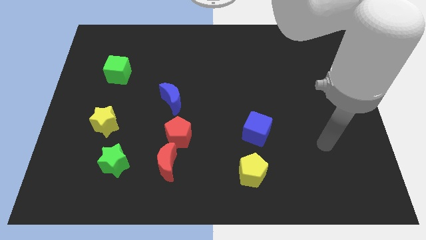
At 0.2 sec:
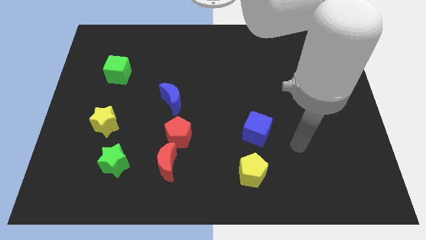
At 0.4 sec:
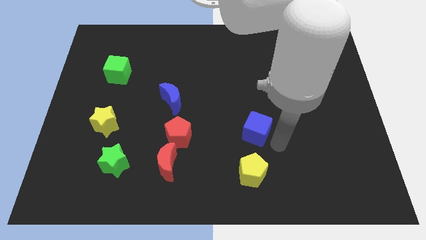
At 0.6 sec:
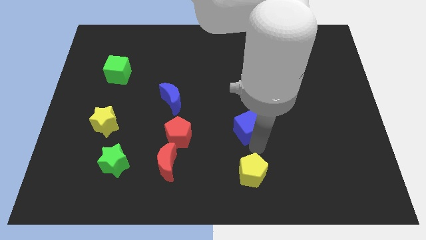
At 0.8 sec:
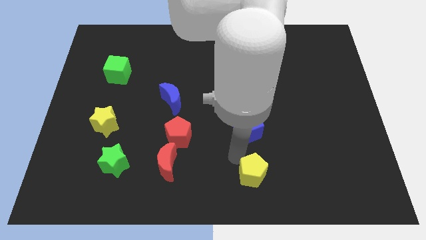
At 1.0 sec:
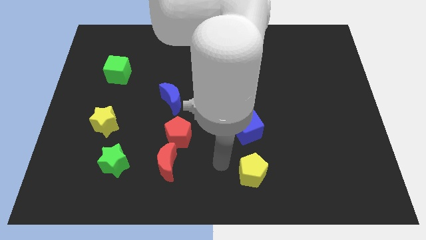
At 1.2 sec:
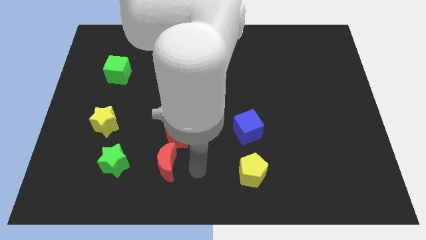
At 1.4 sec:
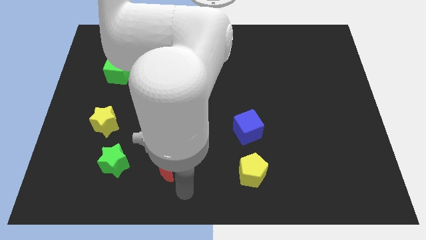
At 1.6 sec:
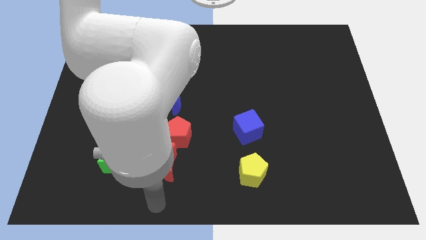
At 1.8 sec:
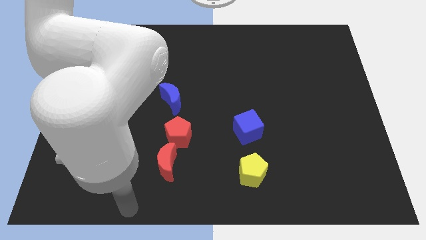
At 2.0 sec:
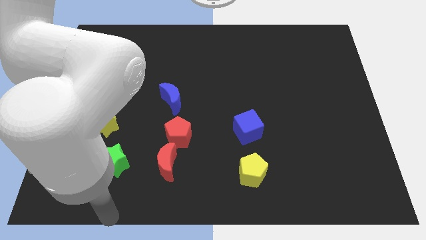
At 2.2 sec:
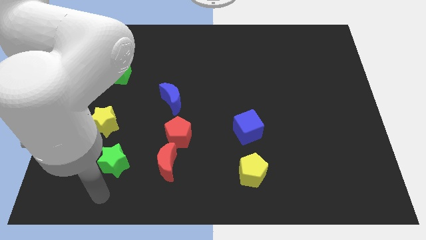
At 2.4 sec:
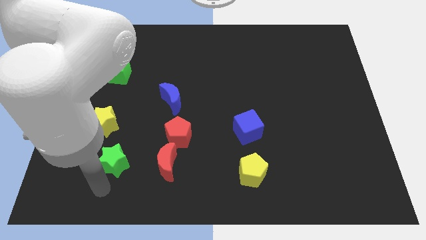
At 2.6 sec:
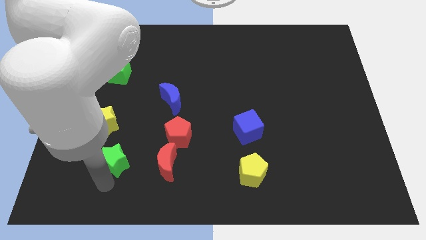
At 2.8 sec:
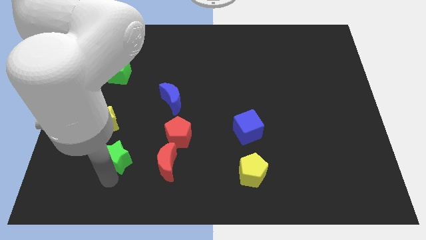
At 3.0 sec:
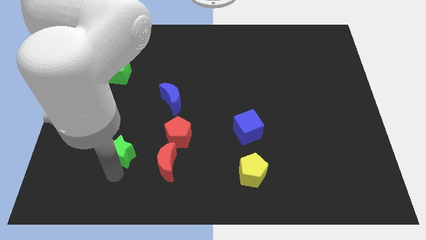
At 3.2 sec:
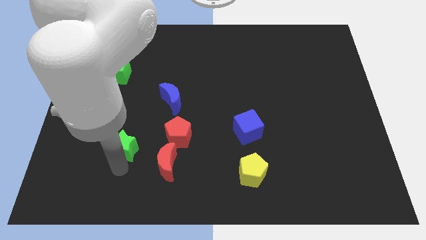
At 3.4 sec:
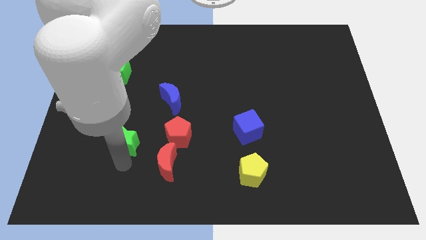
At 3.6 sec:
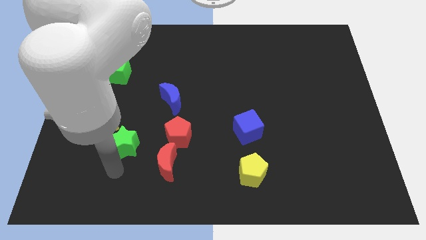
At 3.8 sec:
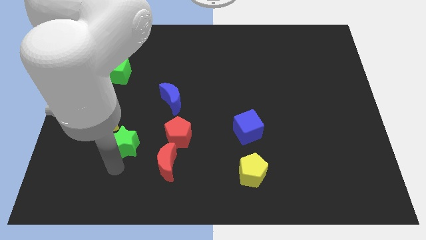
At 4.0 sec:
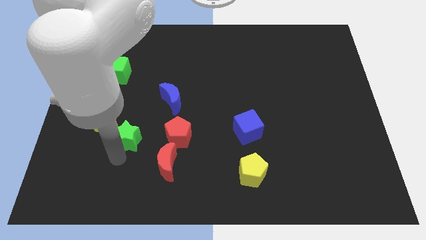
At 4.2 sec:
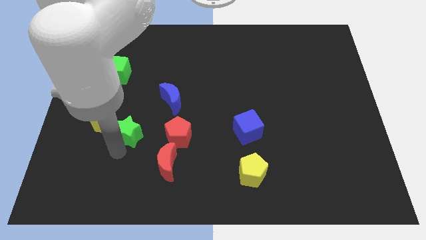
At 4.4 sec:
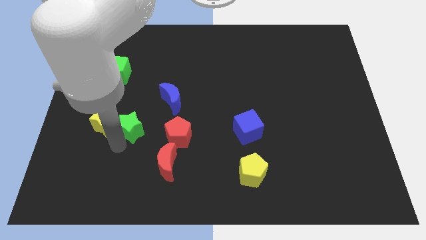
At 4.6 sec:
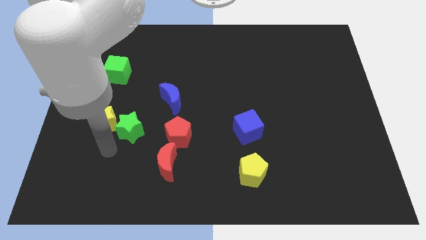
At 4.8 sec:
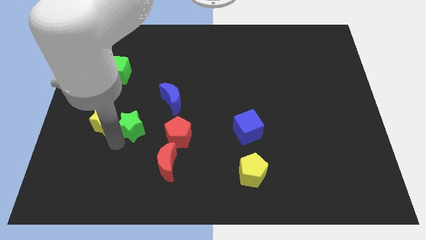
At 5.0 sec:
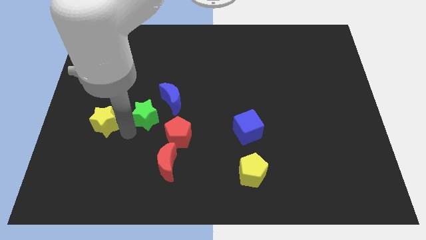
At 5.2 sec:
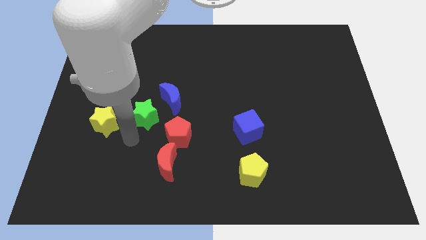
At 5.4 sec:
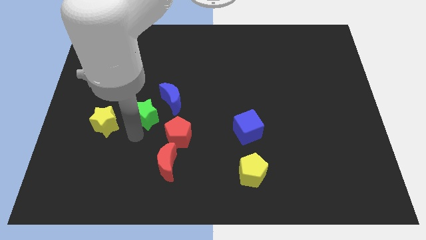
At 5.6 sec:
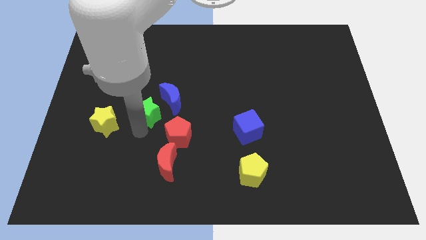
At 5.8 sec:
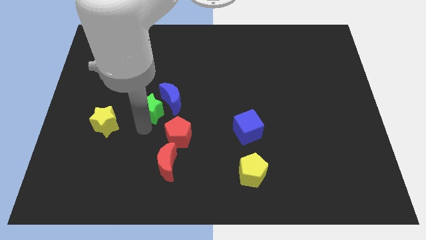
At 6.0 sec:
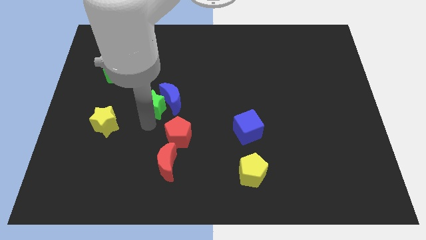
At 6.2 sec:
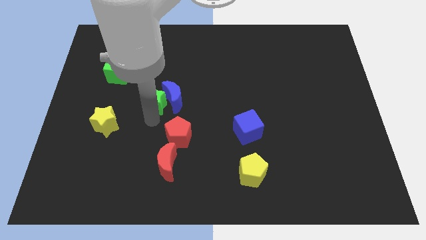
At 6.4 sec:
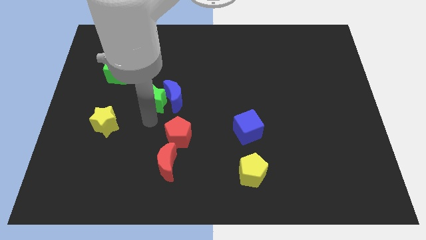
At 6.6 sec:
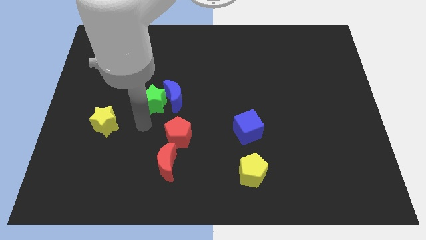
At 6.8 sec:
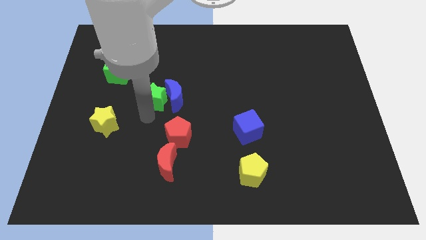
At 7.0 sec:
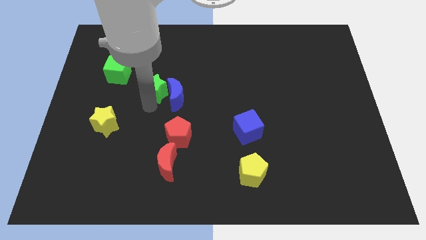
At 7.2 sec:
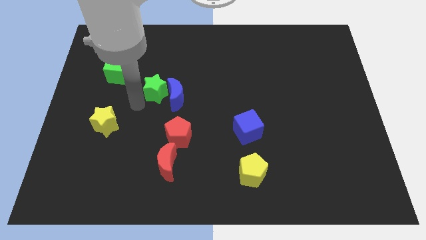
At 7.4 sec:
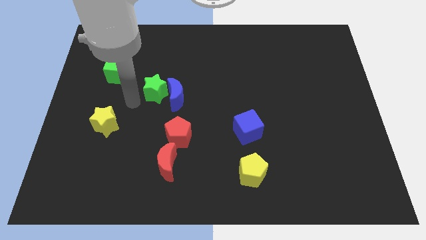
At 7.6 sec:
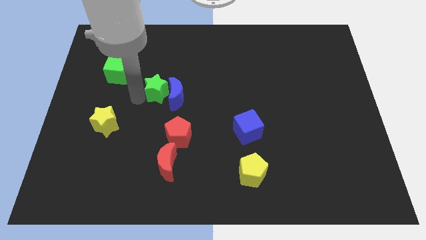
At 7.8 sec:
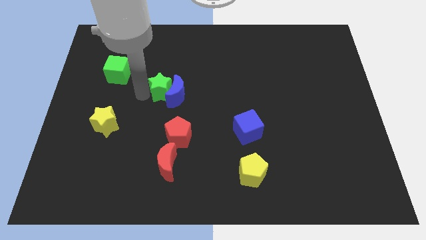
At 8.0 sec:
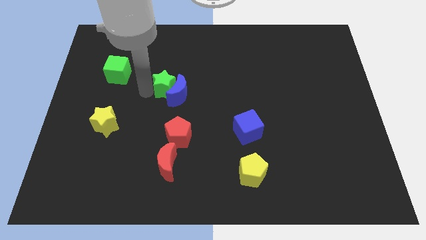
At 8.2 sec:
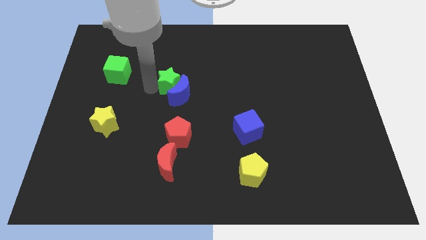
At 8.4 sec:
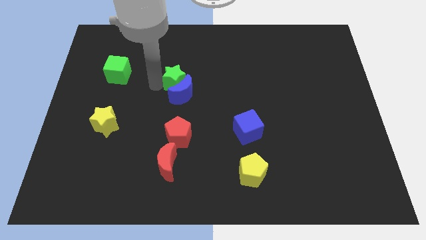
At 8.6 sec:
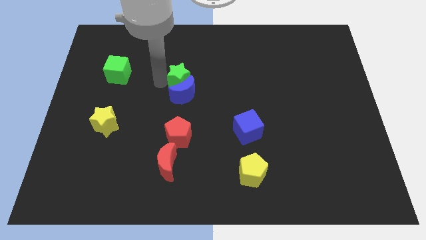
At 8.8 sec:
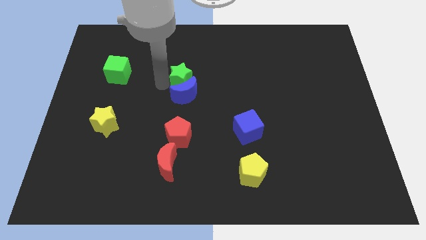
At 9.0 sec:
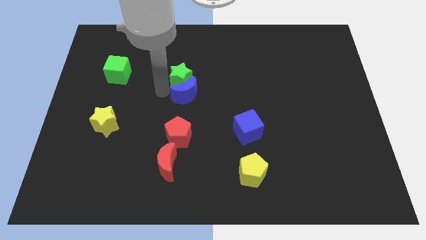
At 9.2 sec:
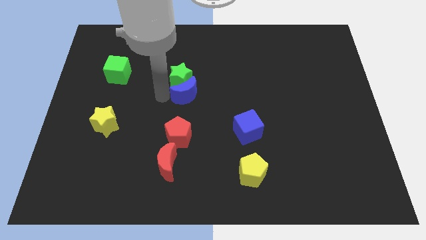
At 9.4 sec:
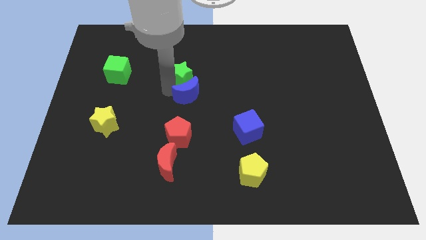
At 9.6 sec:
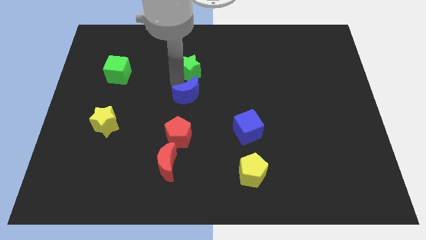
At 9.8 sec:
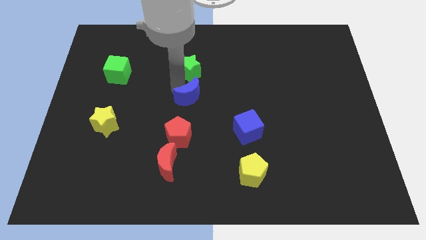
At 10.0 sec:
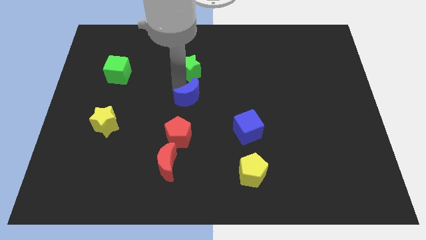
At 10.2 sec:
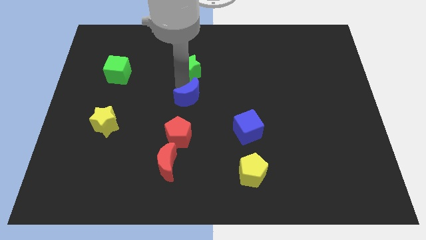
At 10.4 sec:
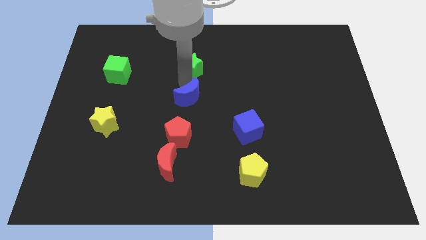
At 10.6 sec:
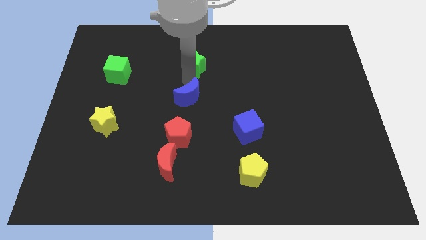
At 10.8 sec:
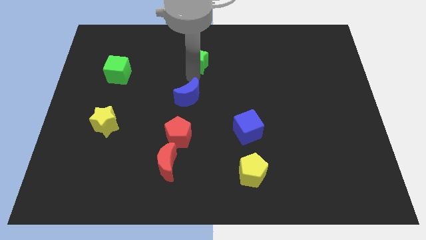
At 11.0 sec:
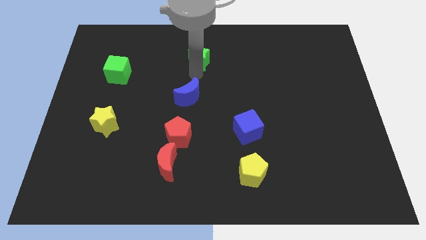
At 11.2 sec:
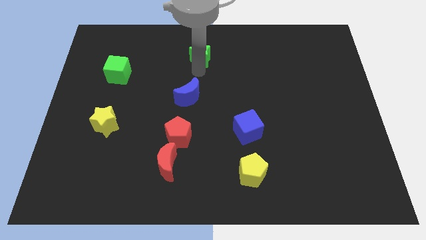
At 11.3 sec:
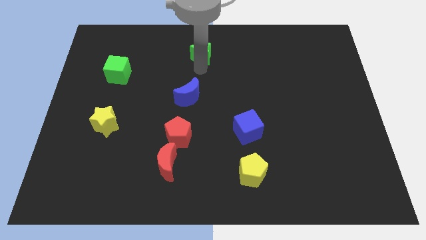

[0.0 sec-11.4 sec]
move the green star to the top
